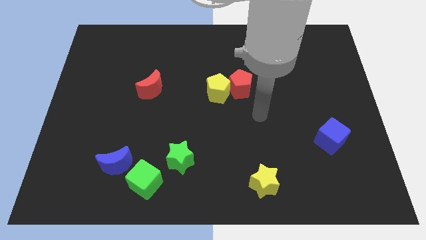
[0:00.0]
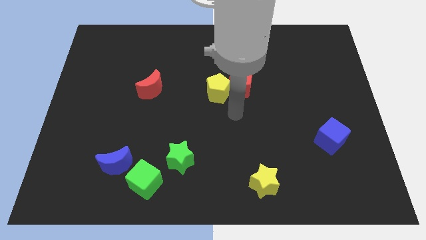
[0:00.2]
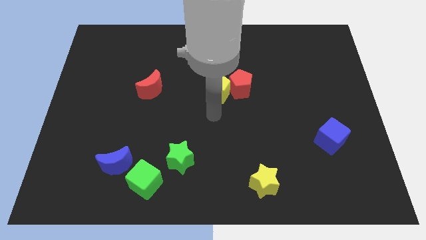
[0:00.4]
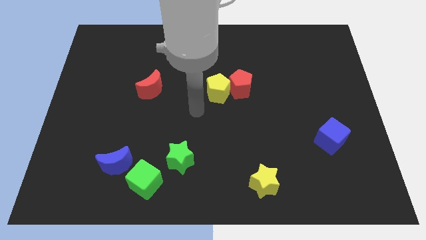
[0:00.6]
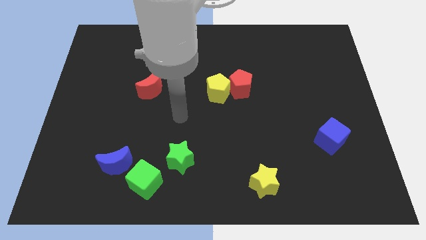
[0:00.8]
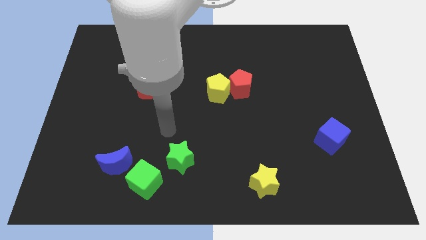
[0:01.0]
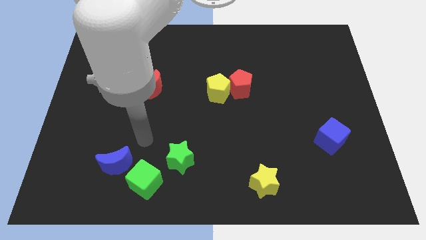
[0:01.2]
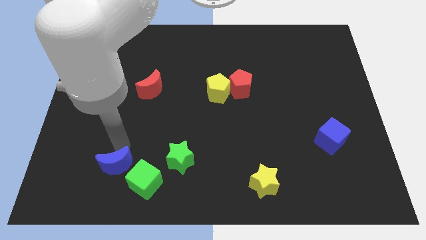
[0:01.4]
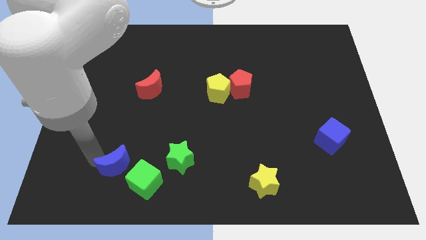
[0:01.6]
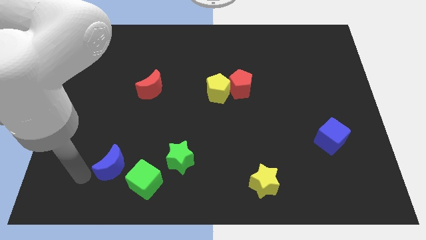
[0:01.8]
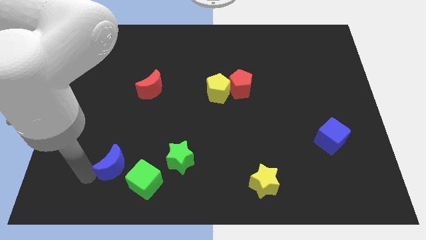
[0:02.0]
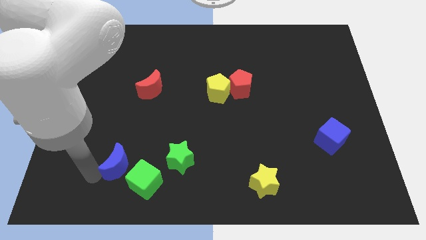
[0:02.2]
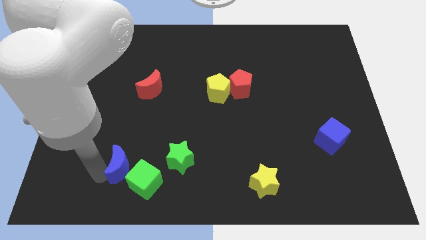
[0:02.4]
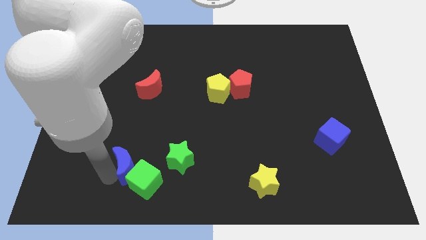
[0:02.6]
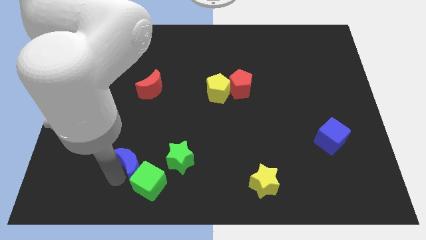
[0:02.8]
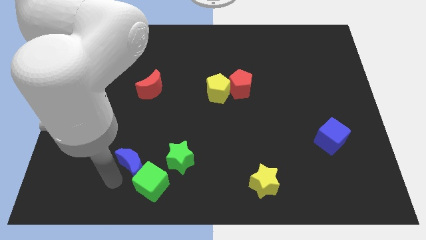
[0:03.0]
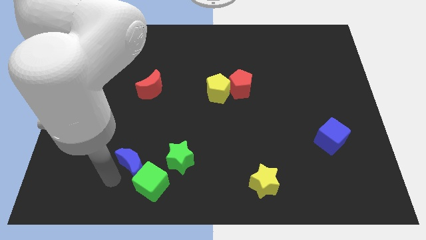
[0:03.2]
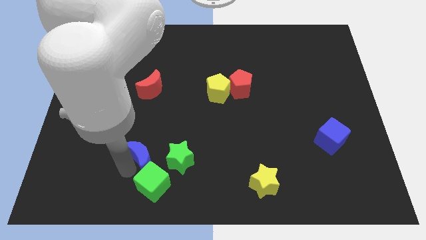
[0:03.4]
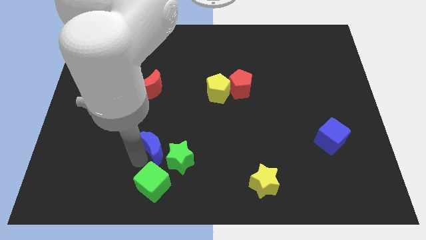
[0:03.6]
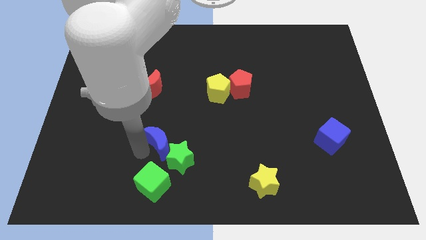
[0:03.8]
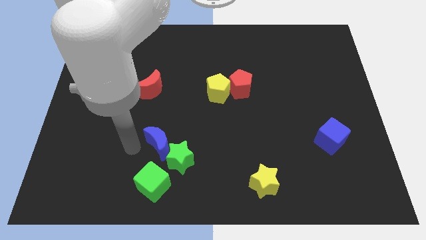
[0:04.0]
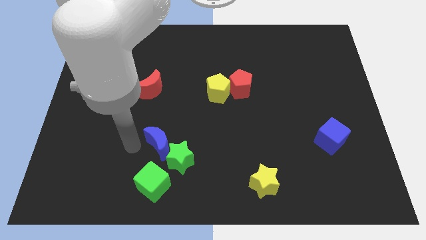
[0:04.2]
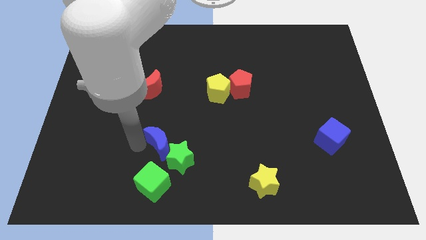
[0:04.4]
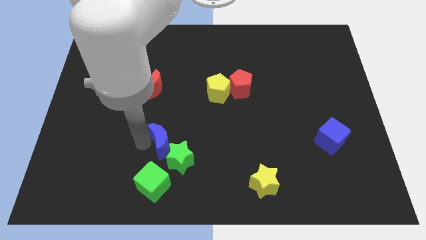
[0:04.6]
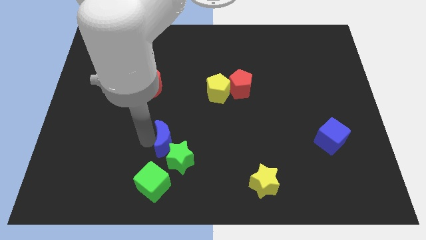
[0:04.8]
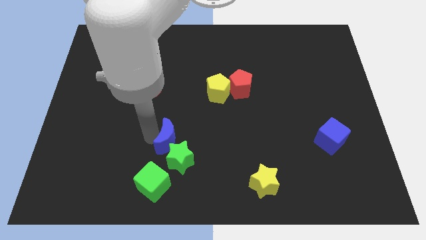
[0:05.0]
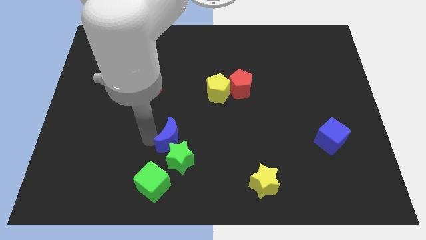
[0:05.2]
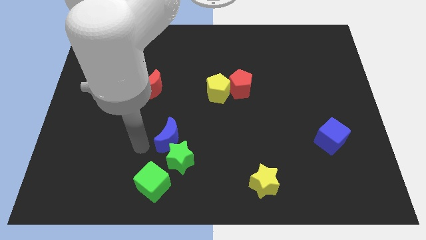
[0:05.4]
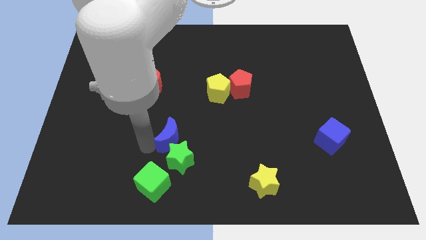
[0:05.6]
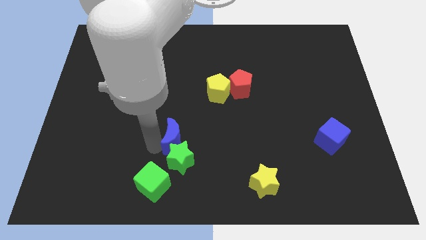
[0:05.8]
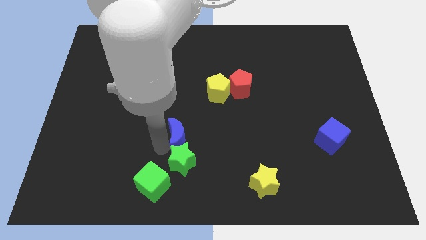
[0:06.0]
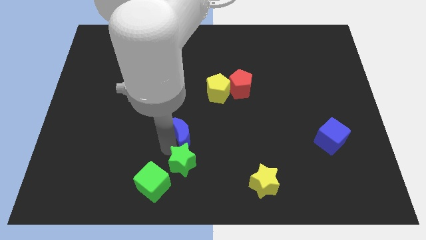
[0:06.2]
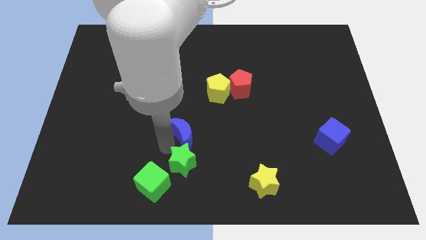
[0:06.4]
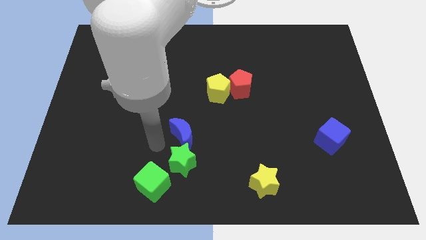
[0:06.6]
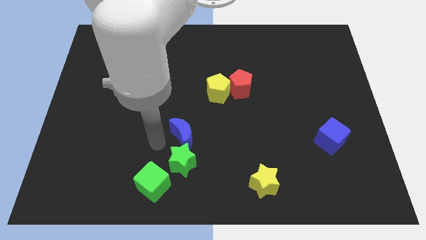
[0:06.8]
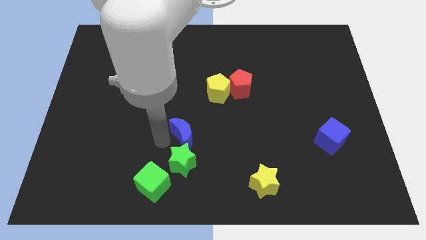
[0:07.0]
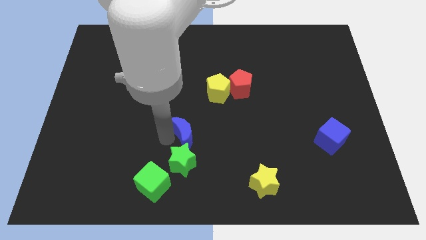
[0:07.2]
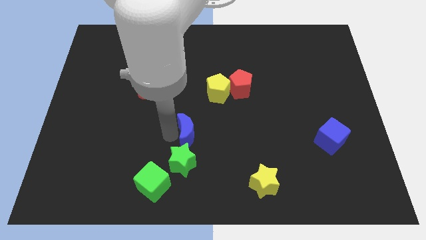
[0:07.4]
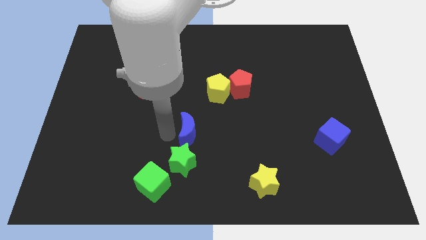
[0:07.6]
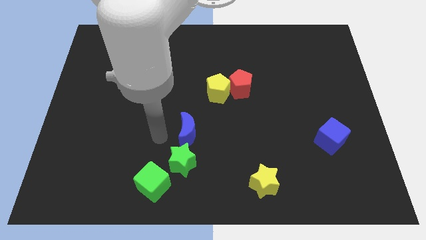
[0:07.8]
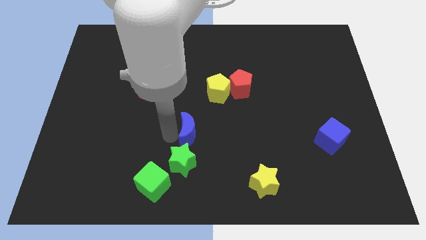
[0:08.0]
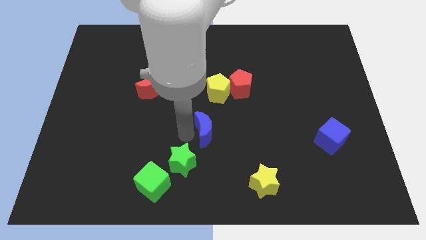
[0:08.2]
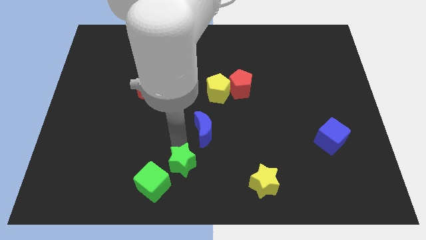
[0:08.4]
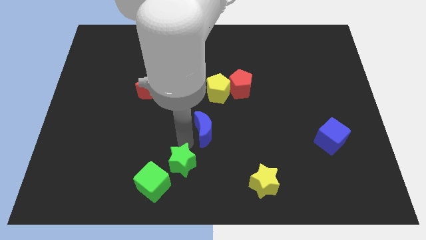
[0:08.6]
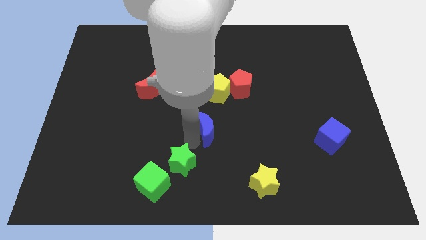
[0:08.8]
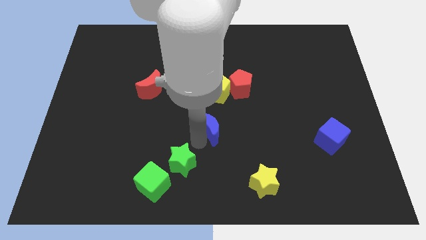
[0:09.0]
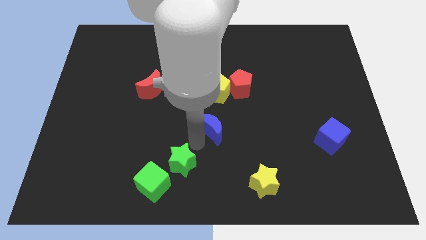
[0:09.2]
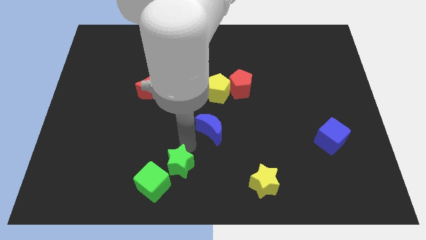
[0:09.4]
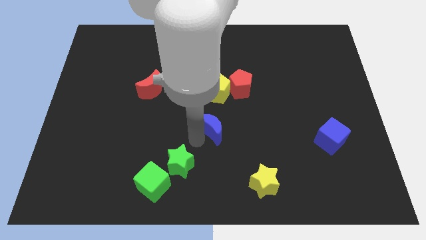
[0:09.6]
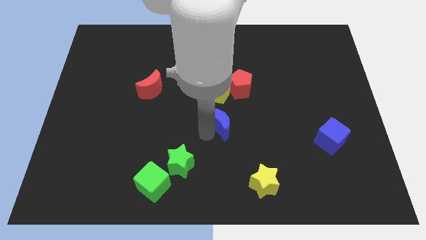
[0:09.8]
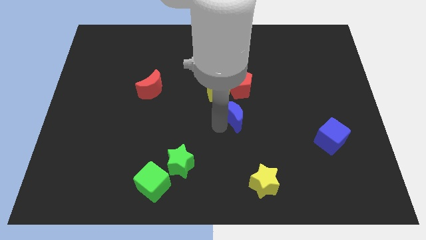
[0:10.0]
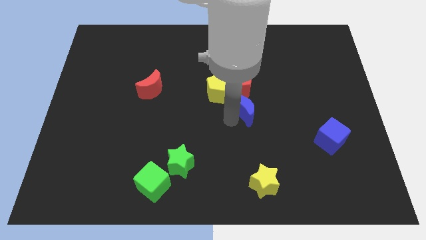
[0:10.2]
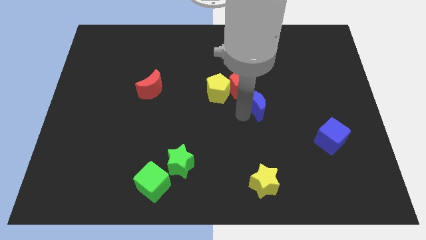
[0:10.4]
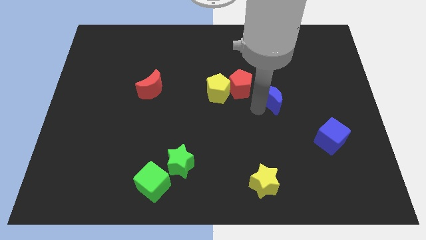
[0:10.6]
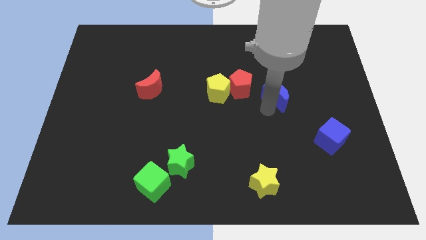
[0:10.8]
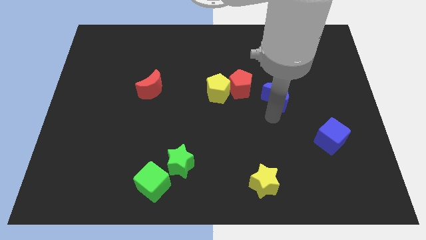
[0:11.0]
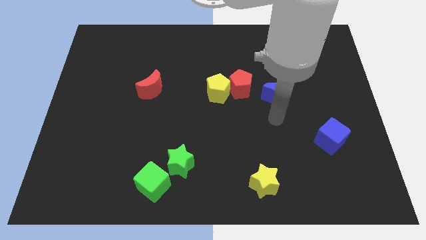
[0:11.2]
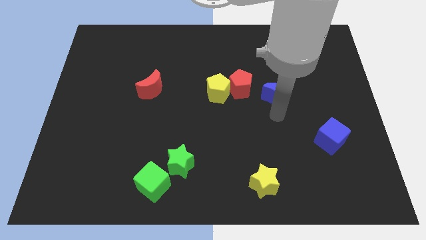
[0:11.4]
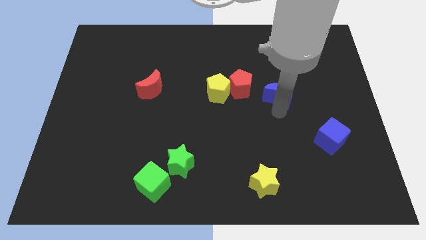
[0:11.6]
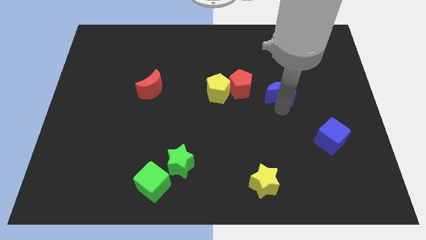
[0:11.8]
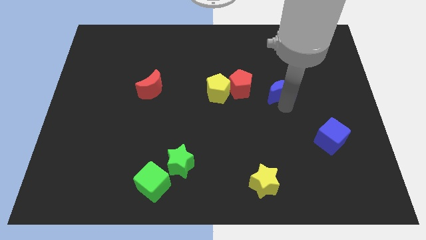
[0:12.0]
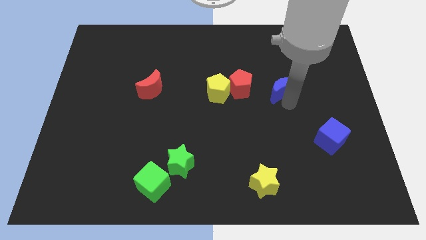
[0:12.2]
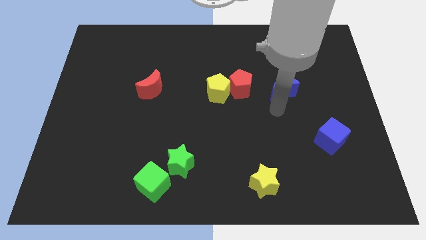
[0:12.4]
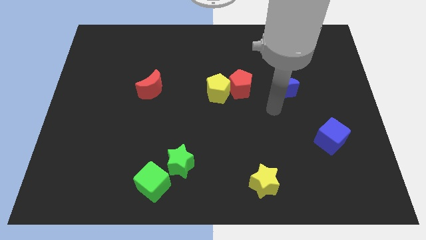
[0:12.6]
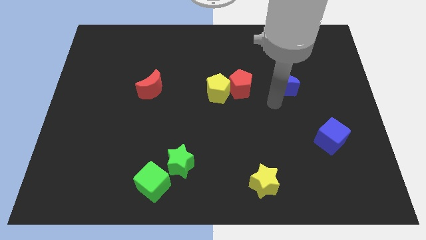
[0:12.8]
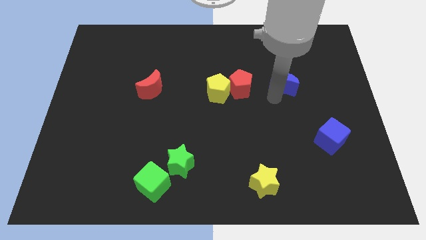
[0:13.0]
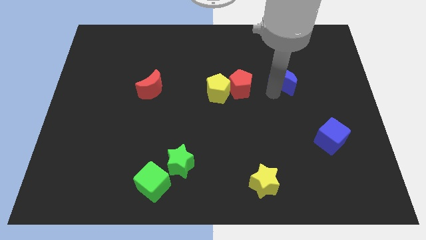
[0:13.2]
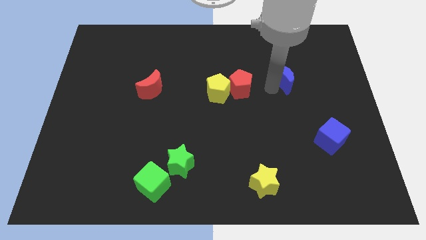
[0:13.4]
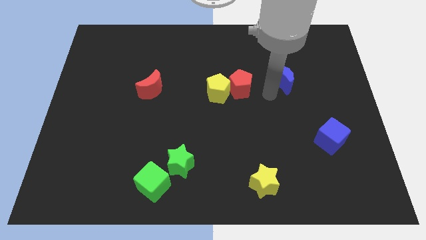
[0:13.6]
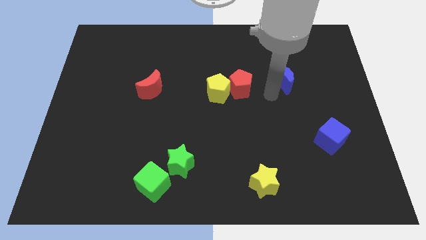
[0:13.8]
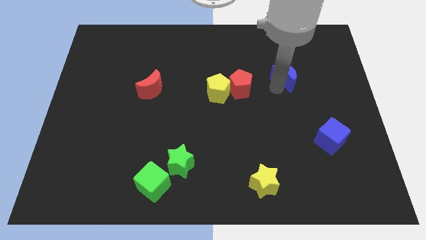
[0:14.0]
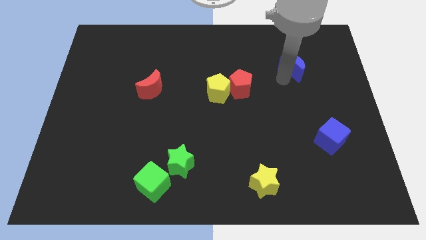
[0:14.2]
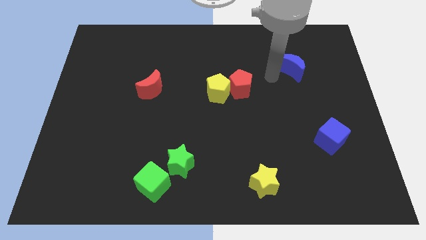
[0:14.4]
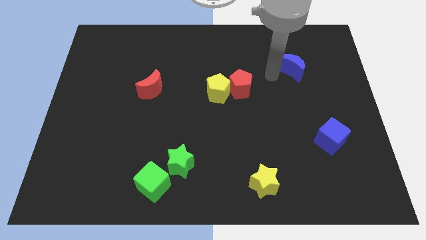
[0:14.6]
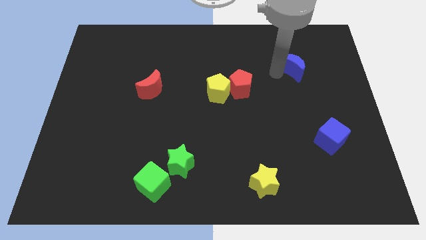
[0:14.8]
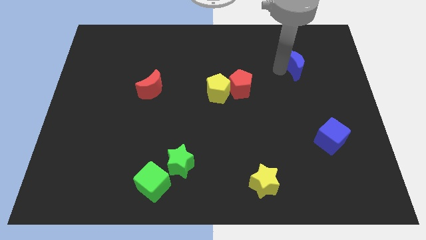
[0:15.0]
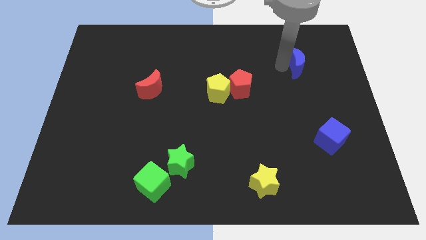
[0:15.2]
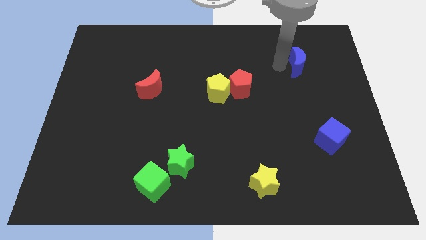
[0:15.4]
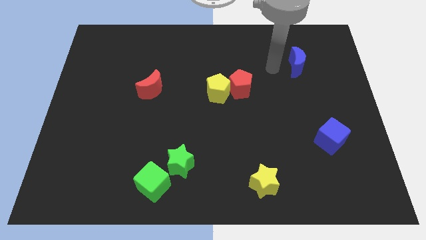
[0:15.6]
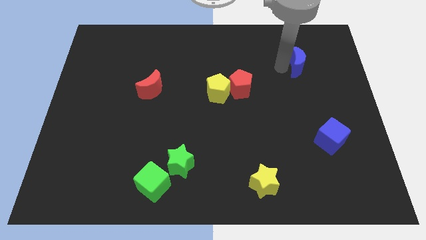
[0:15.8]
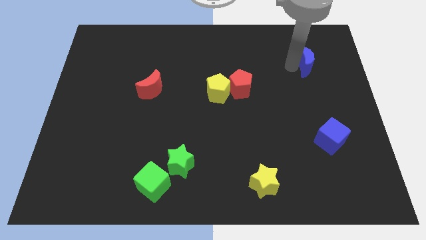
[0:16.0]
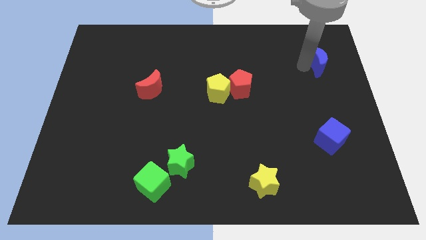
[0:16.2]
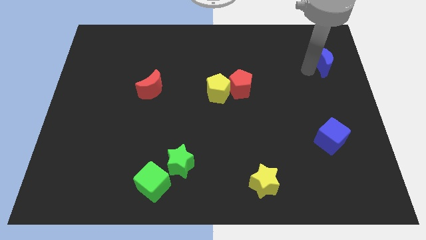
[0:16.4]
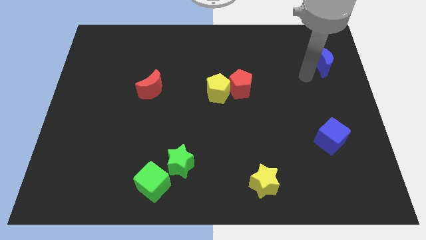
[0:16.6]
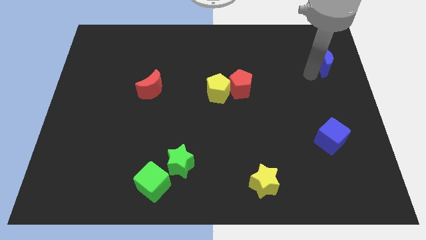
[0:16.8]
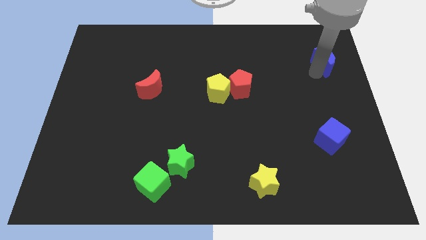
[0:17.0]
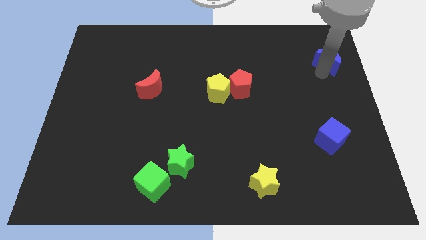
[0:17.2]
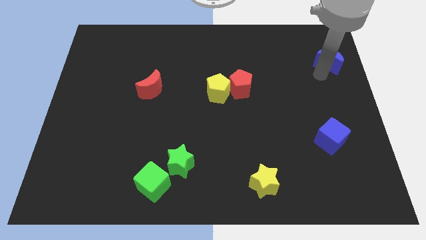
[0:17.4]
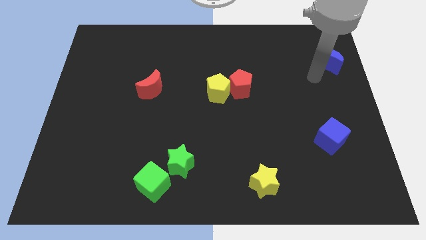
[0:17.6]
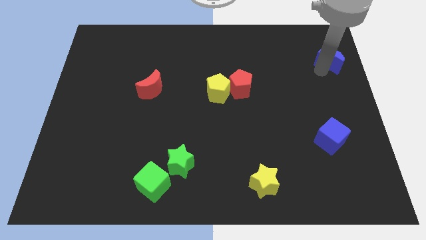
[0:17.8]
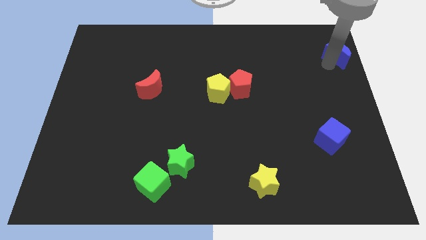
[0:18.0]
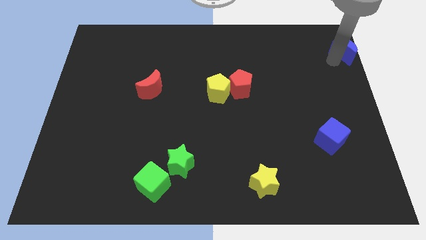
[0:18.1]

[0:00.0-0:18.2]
slide the blue moon to the upper right corner
